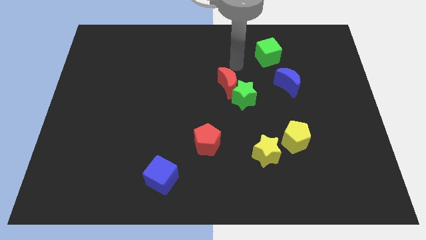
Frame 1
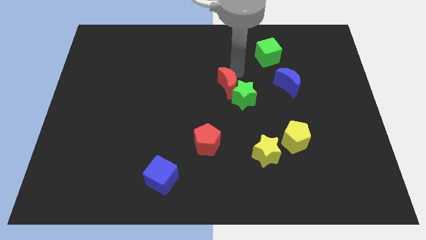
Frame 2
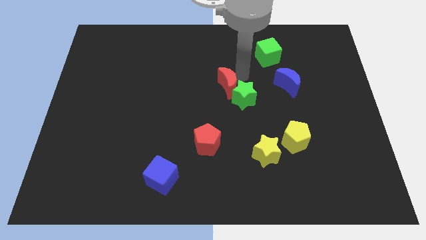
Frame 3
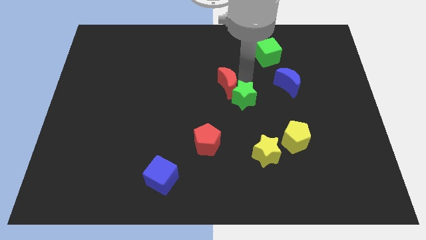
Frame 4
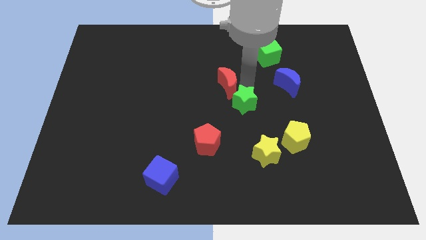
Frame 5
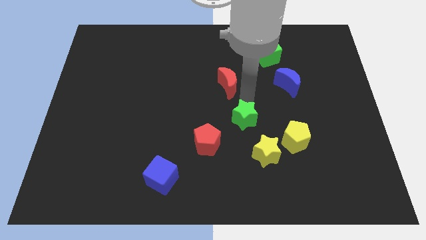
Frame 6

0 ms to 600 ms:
move the red moon away from the green star

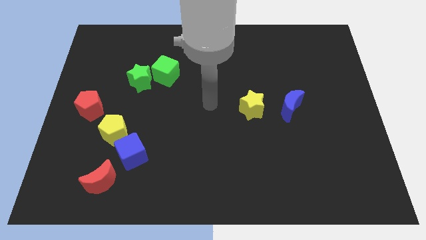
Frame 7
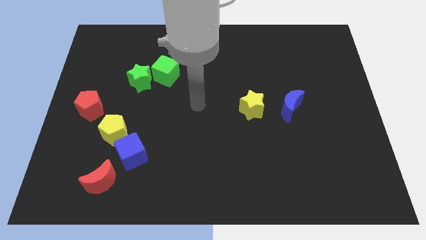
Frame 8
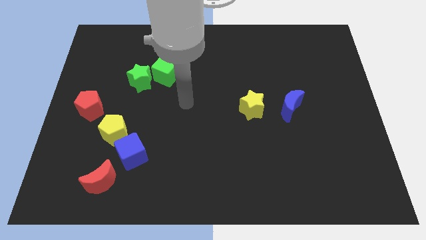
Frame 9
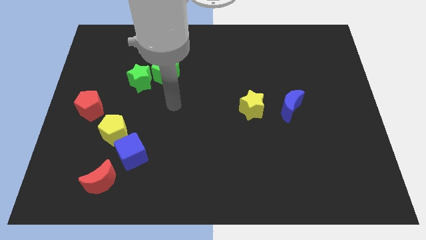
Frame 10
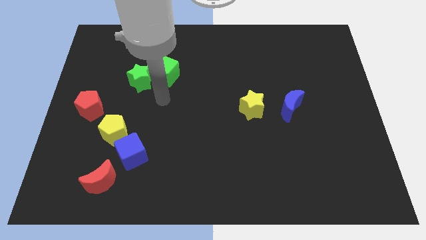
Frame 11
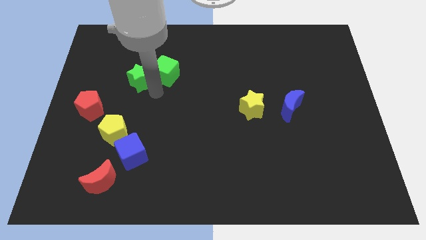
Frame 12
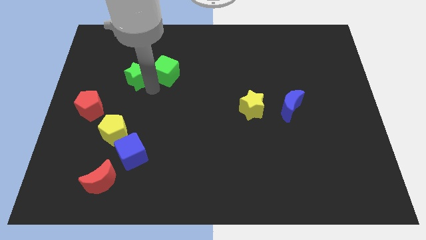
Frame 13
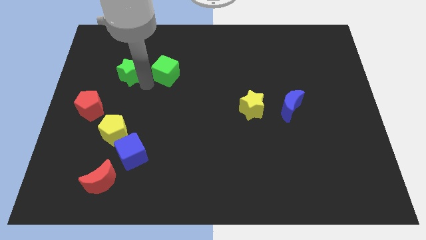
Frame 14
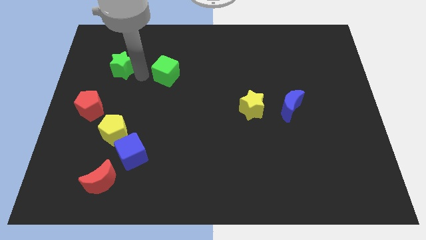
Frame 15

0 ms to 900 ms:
separate the green cube from the green star

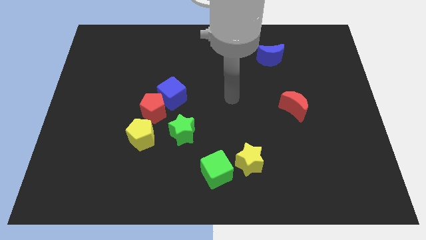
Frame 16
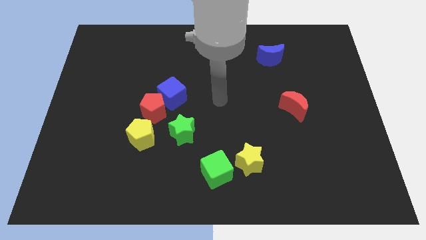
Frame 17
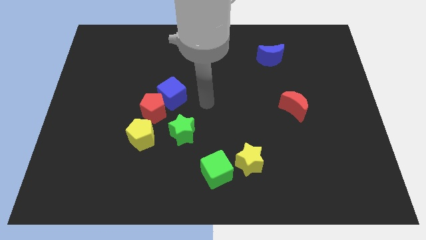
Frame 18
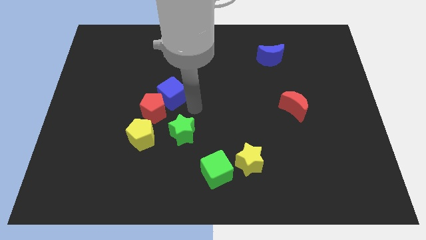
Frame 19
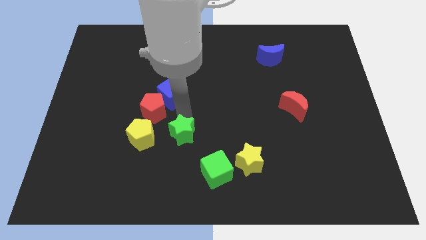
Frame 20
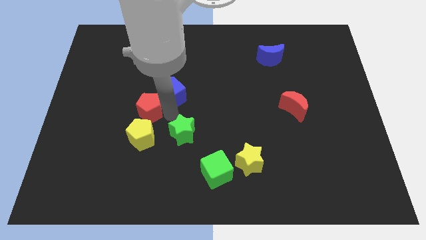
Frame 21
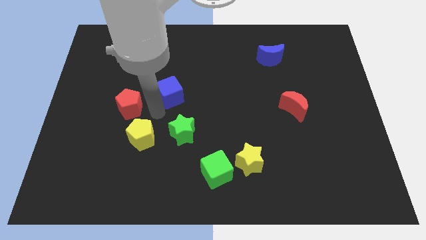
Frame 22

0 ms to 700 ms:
move the blue cube away from the red pentagon

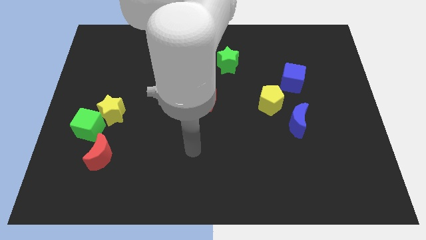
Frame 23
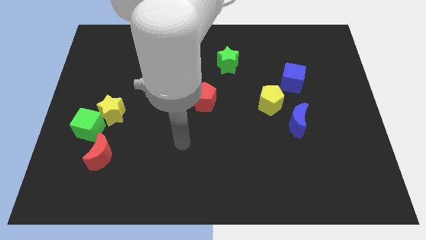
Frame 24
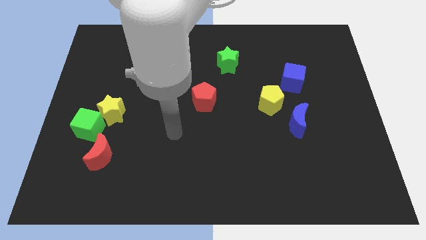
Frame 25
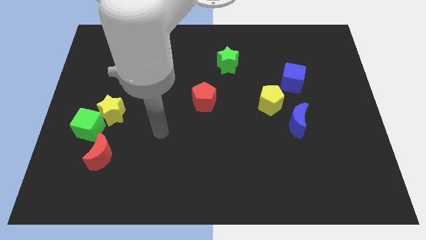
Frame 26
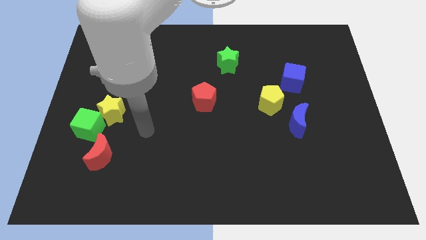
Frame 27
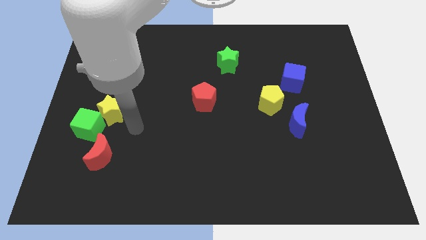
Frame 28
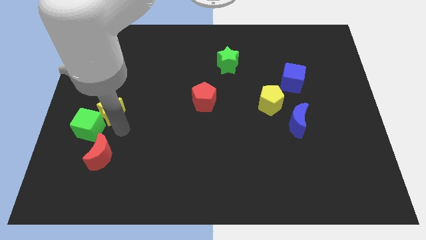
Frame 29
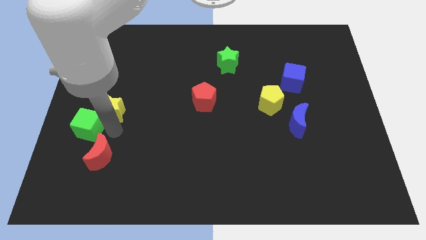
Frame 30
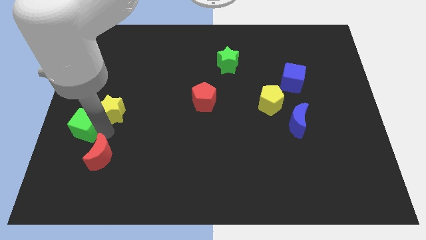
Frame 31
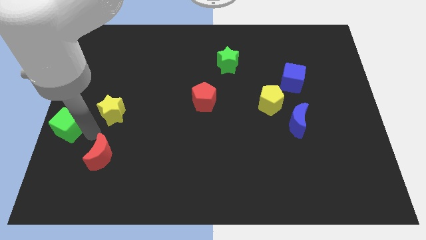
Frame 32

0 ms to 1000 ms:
move the yellow star away from the green cube

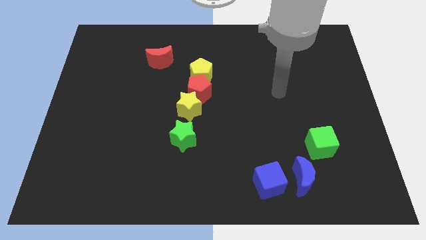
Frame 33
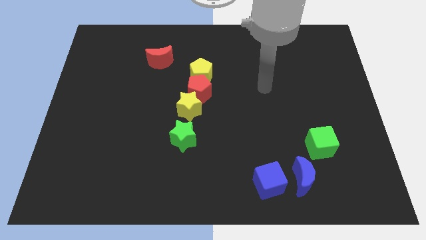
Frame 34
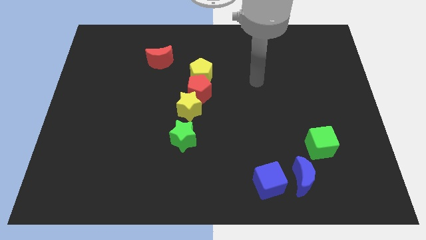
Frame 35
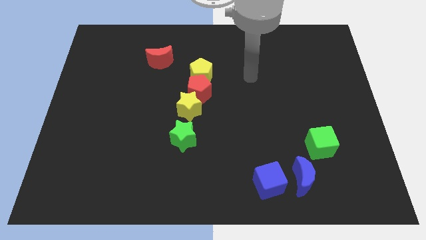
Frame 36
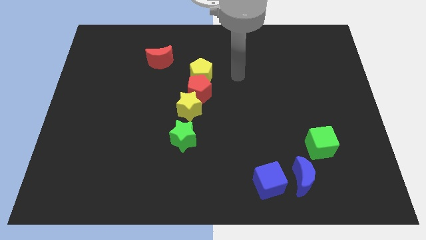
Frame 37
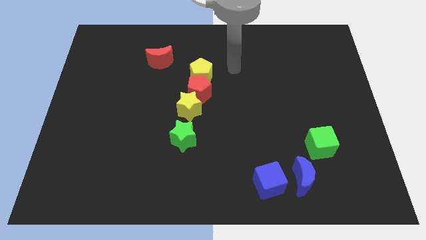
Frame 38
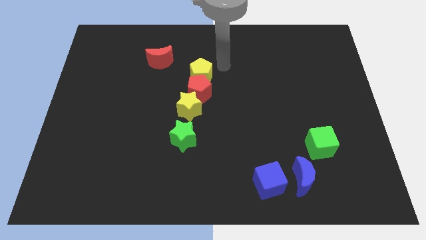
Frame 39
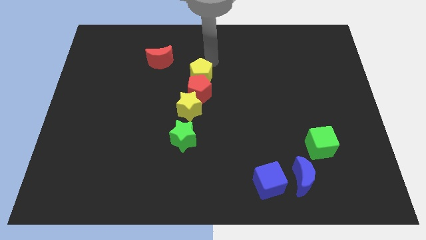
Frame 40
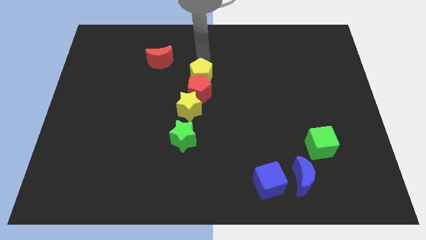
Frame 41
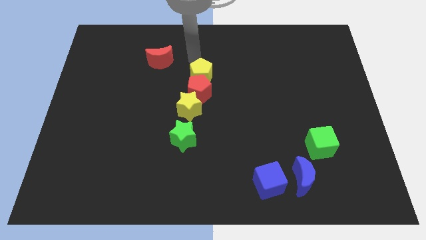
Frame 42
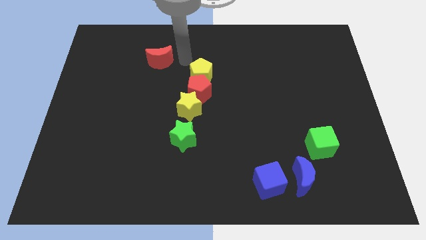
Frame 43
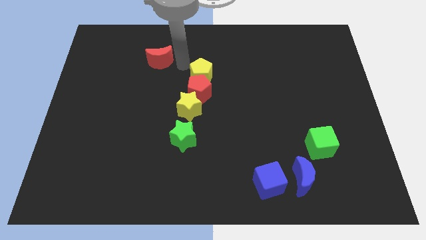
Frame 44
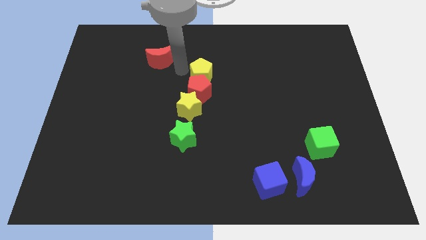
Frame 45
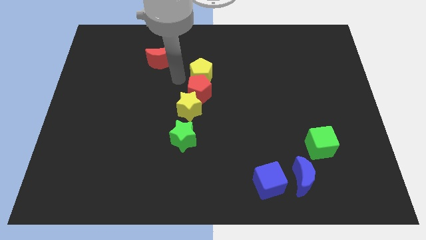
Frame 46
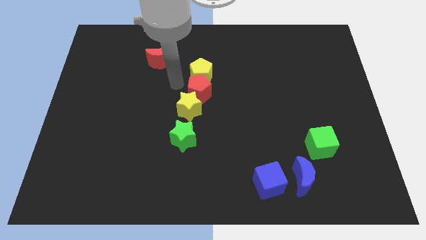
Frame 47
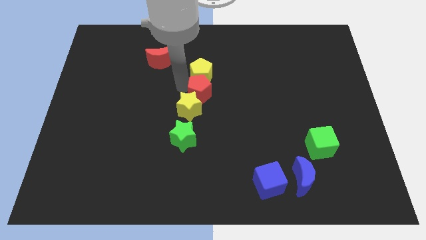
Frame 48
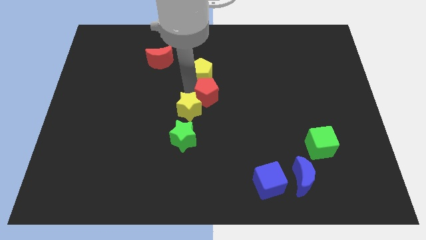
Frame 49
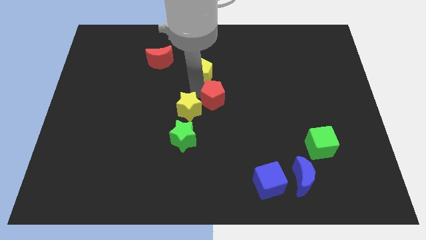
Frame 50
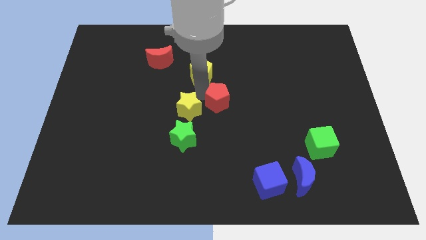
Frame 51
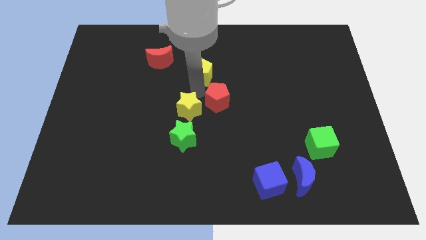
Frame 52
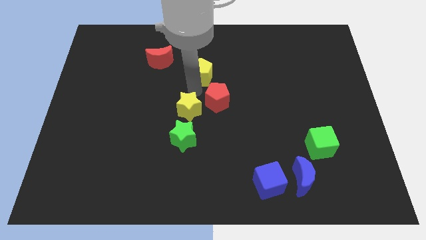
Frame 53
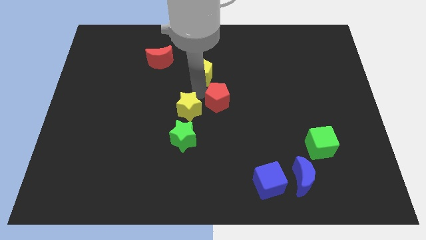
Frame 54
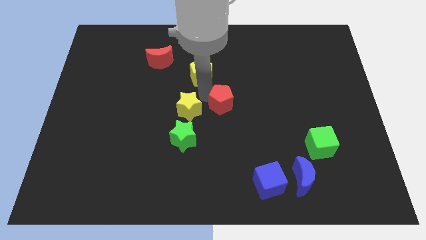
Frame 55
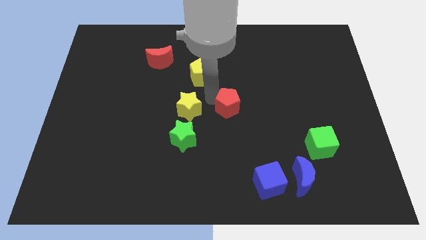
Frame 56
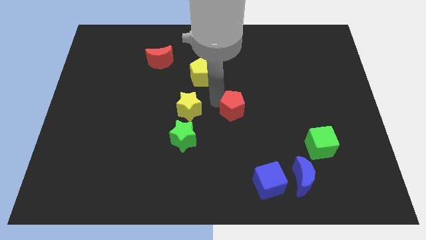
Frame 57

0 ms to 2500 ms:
separate the red pentagon from the yellow star and yellow pentagon

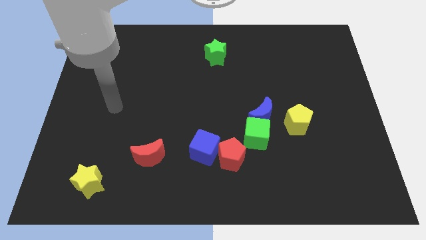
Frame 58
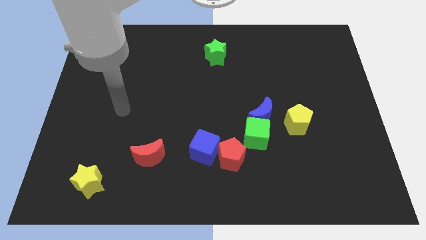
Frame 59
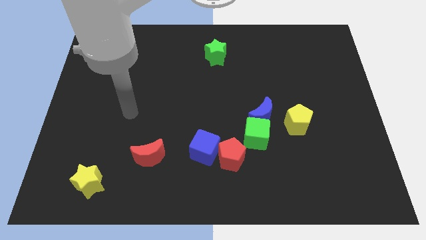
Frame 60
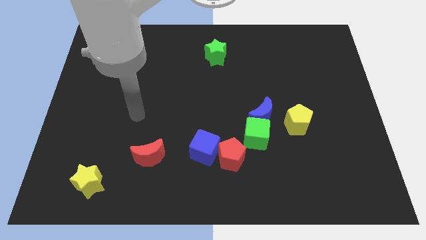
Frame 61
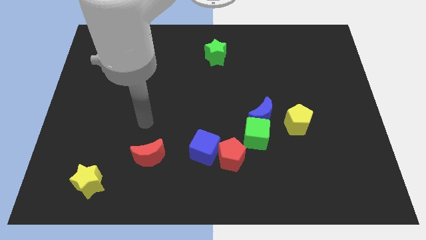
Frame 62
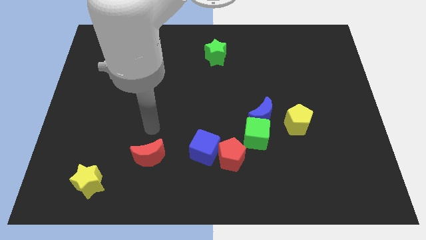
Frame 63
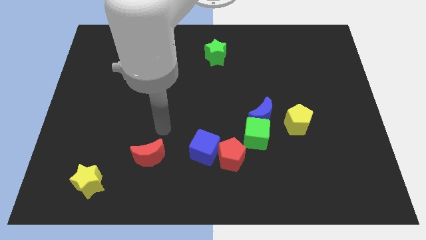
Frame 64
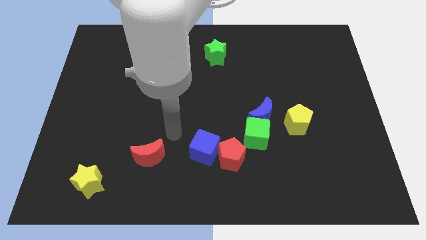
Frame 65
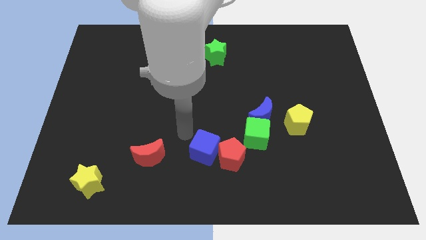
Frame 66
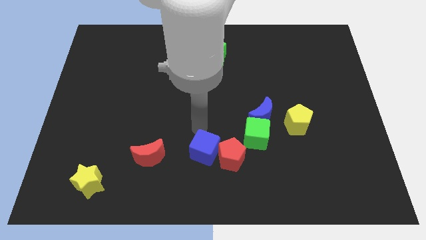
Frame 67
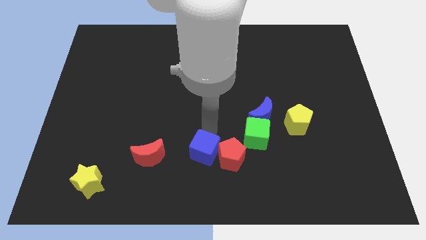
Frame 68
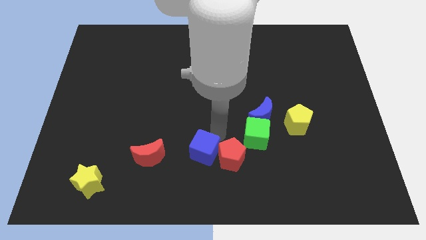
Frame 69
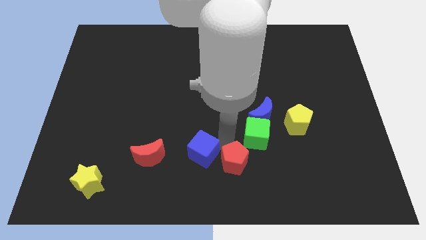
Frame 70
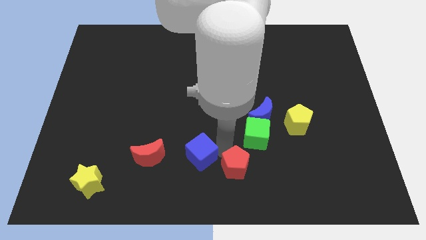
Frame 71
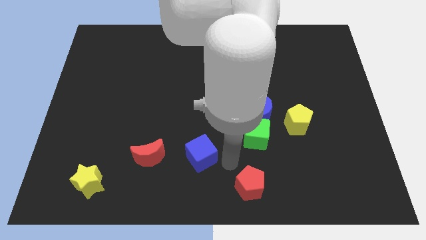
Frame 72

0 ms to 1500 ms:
separate the blue cube from the red pentagon

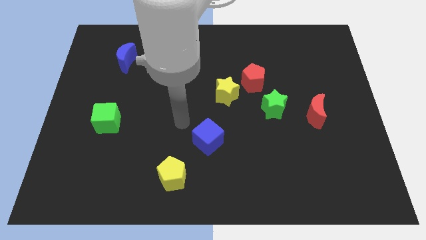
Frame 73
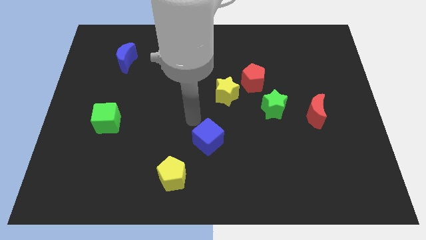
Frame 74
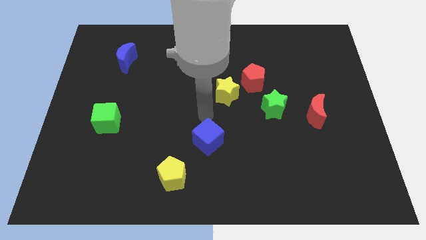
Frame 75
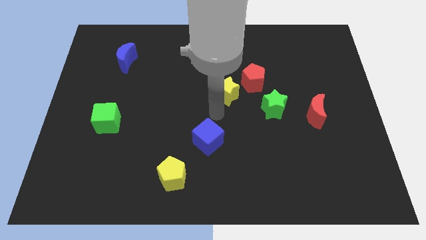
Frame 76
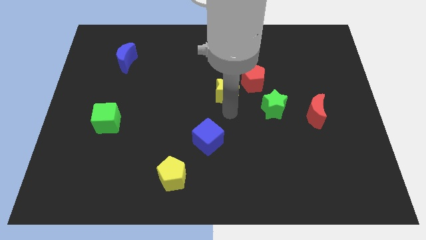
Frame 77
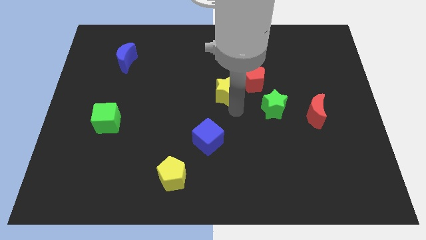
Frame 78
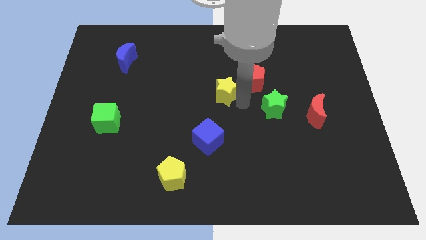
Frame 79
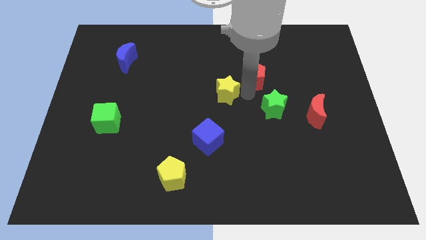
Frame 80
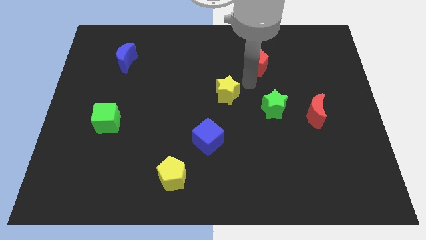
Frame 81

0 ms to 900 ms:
separate the yellow star from the red pentagon

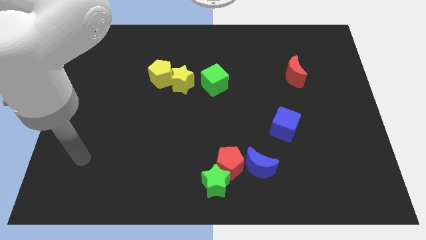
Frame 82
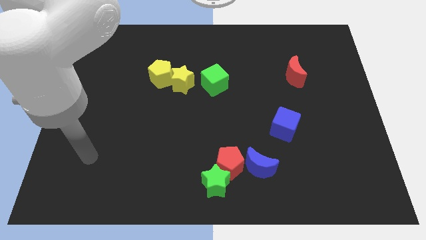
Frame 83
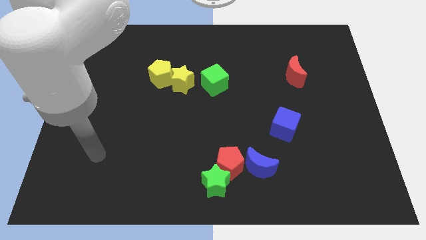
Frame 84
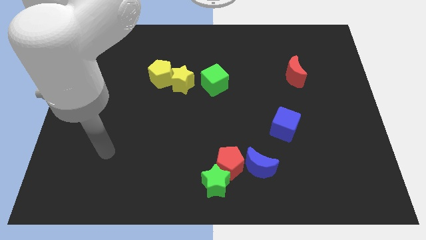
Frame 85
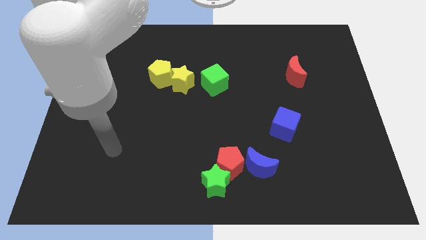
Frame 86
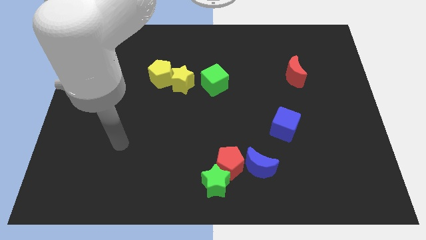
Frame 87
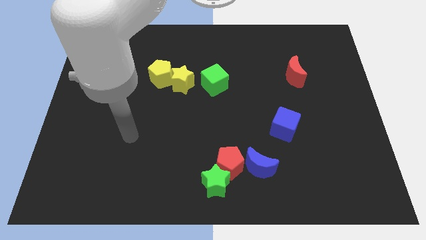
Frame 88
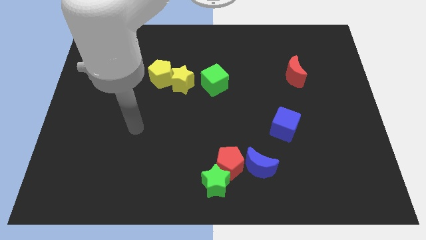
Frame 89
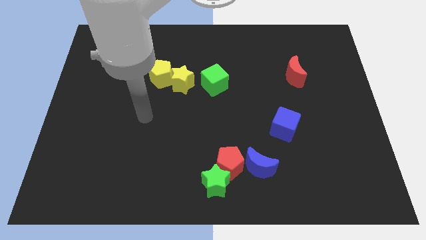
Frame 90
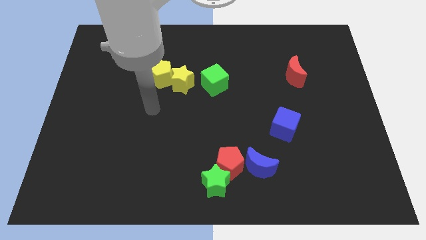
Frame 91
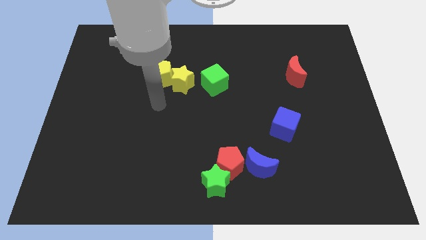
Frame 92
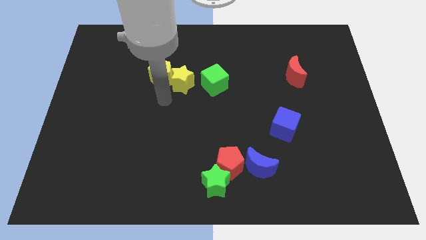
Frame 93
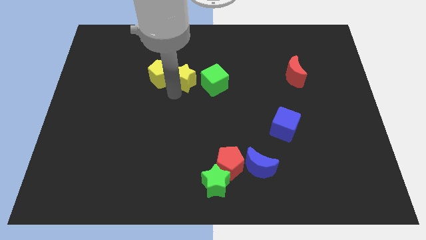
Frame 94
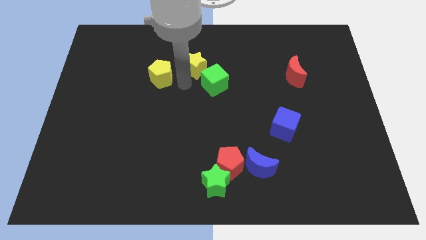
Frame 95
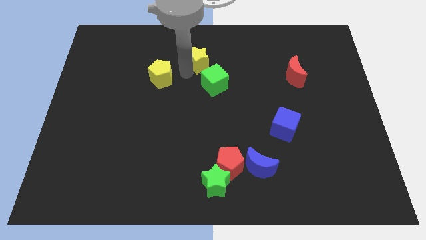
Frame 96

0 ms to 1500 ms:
move the yellow pentagon away from the yellow star
